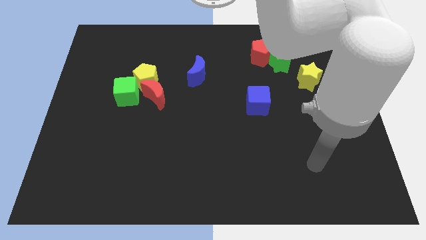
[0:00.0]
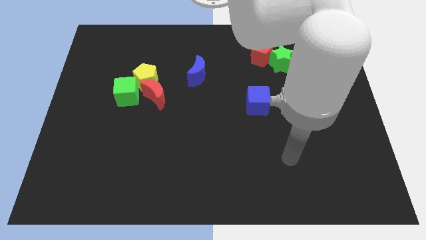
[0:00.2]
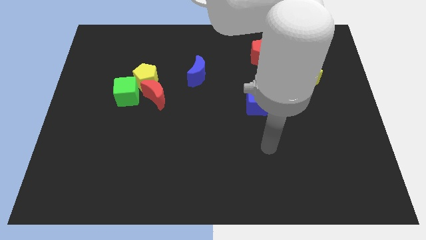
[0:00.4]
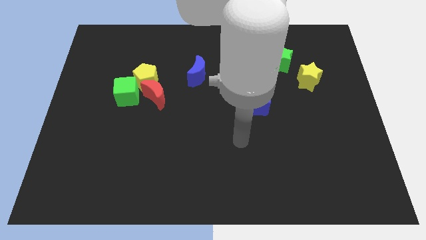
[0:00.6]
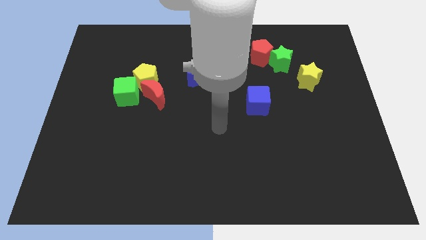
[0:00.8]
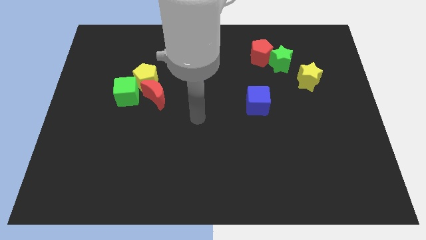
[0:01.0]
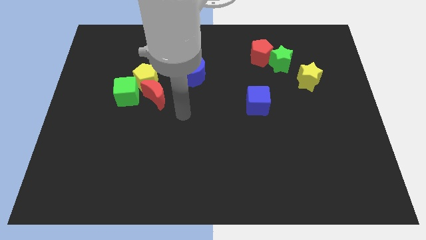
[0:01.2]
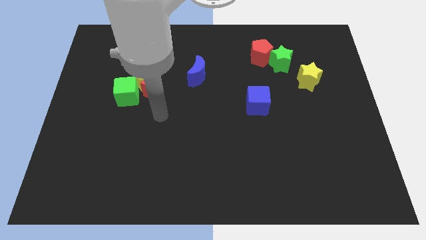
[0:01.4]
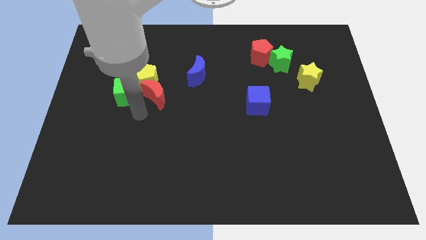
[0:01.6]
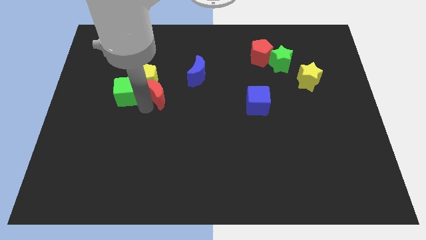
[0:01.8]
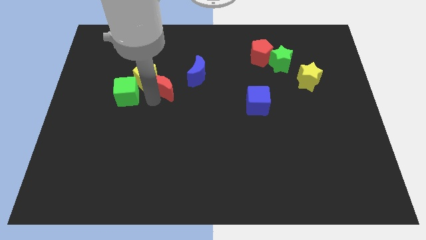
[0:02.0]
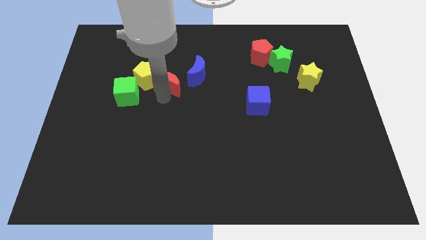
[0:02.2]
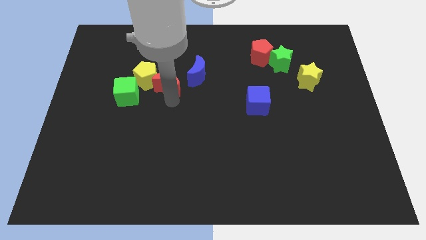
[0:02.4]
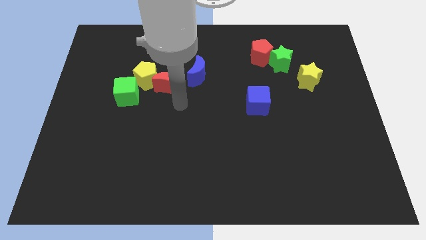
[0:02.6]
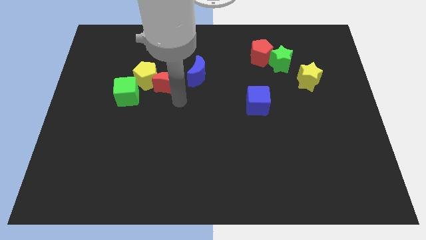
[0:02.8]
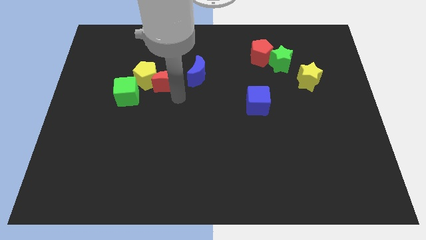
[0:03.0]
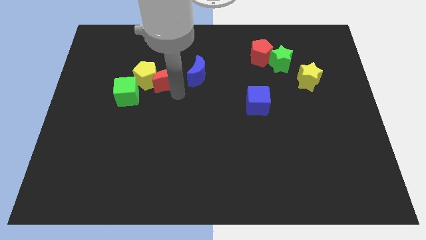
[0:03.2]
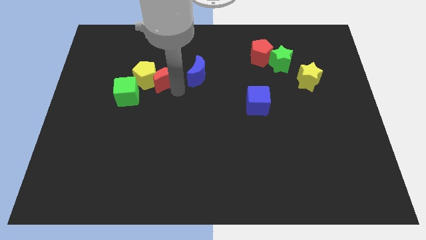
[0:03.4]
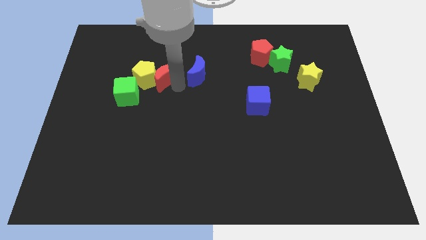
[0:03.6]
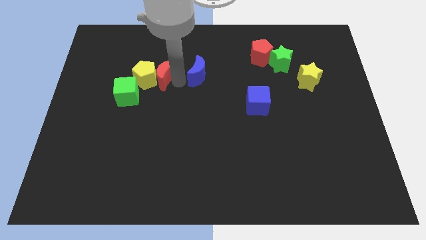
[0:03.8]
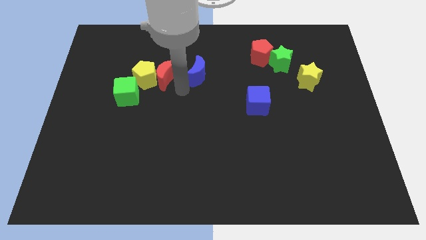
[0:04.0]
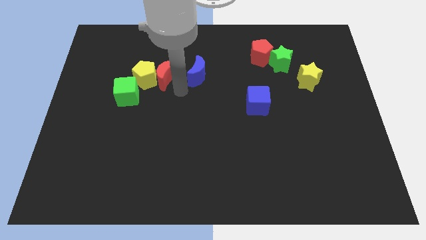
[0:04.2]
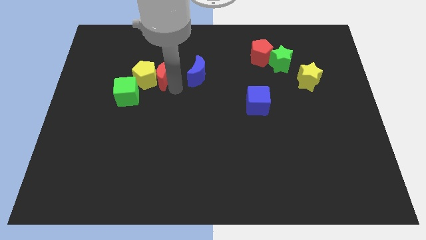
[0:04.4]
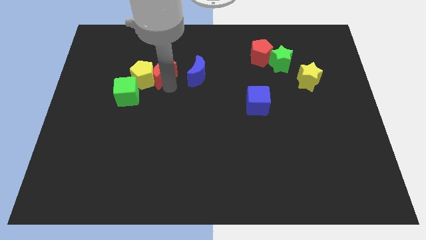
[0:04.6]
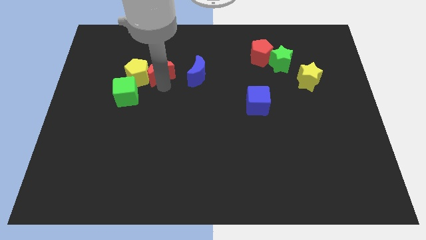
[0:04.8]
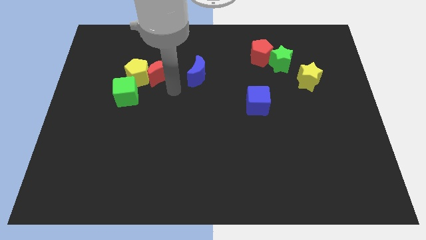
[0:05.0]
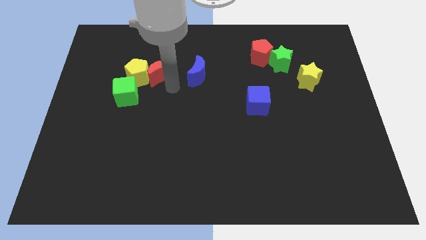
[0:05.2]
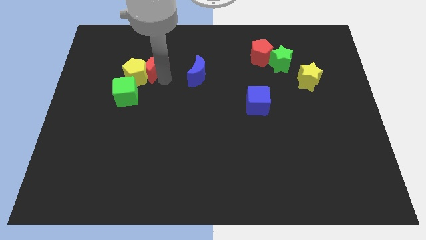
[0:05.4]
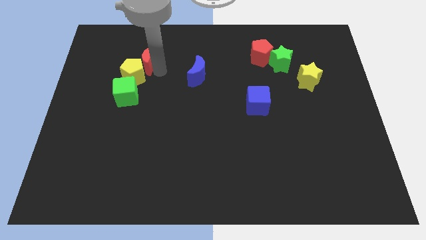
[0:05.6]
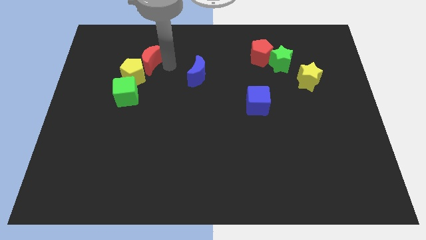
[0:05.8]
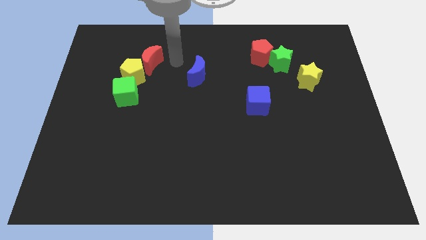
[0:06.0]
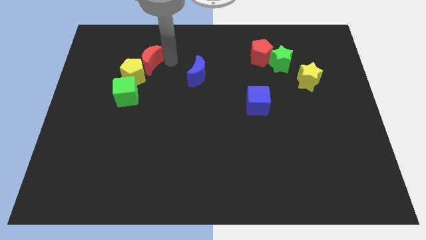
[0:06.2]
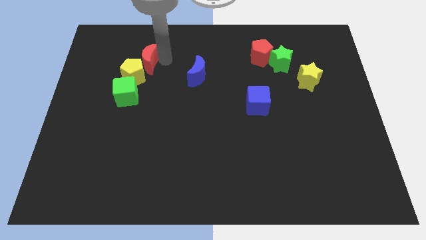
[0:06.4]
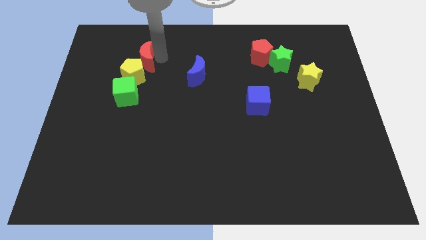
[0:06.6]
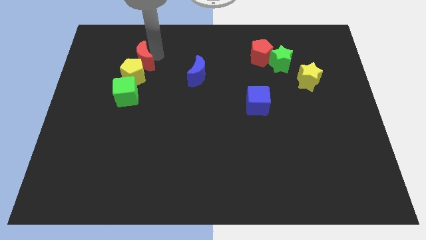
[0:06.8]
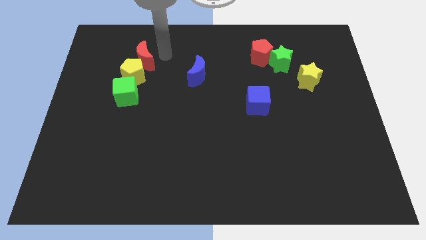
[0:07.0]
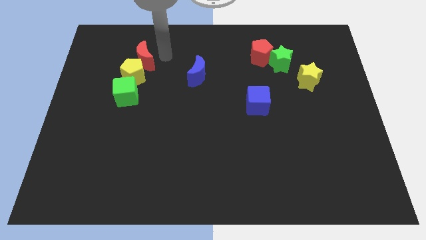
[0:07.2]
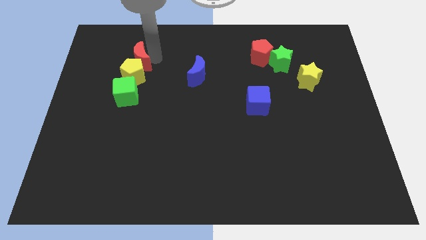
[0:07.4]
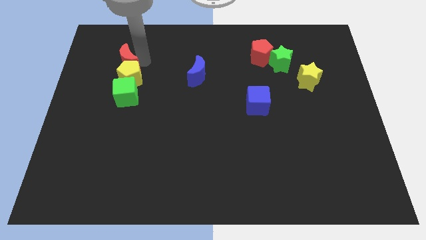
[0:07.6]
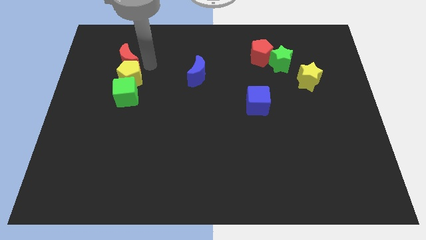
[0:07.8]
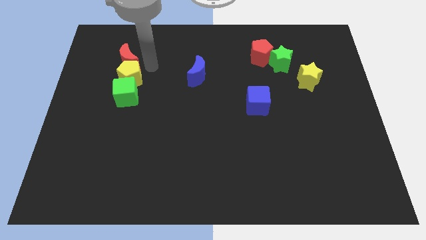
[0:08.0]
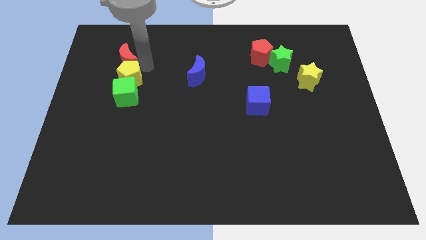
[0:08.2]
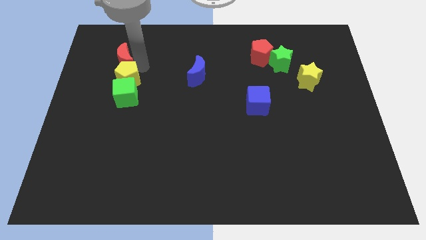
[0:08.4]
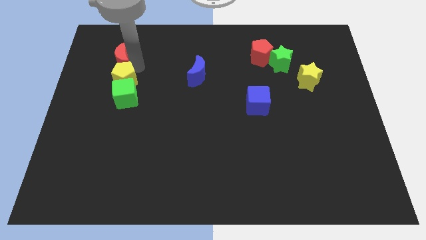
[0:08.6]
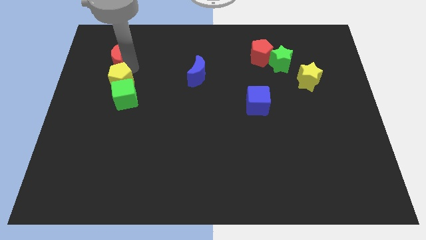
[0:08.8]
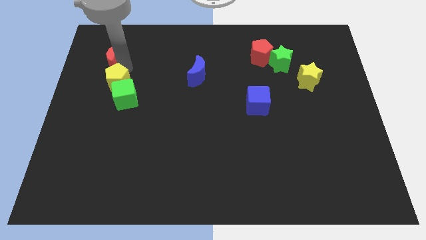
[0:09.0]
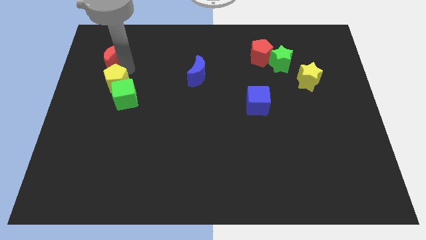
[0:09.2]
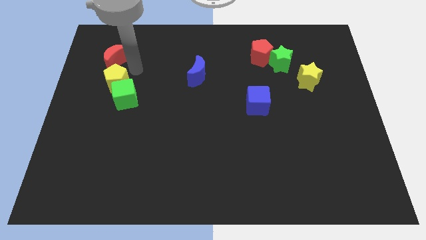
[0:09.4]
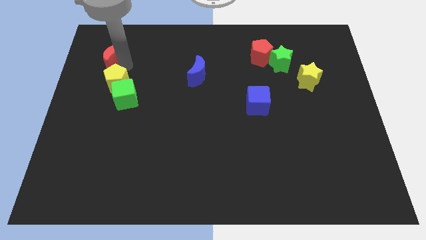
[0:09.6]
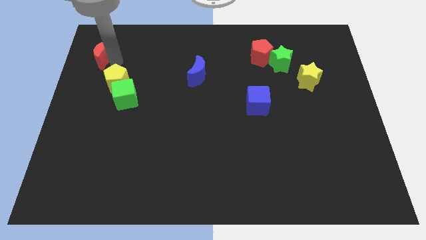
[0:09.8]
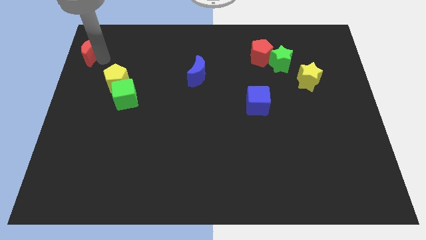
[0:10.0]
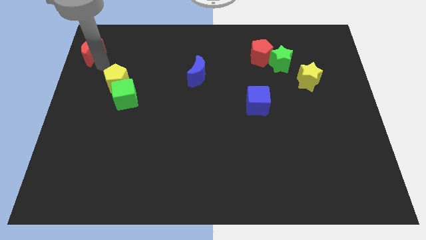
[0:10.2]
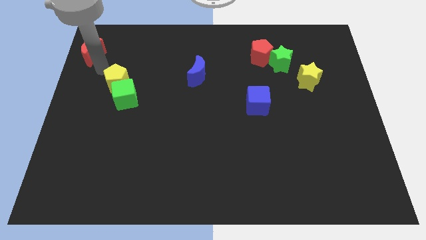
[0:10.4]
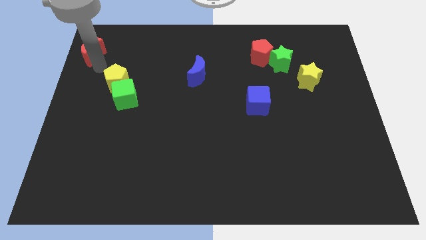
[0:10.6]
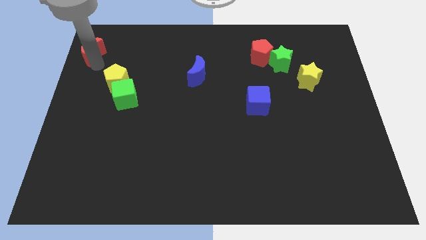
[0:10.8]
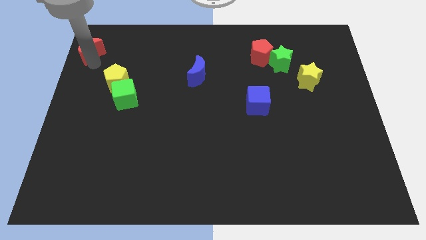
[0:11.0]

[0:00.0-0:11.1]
slide the red moon to the top left corner

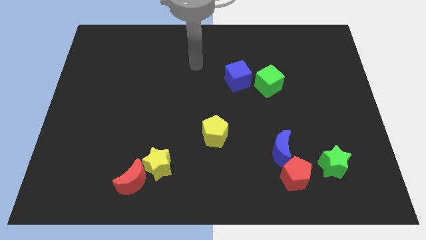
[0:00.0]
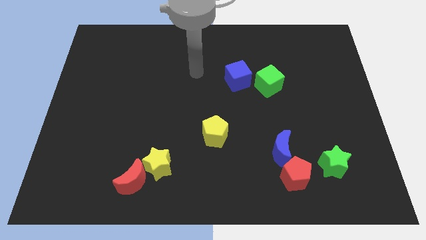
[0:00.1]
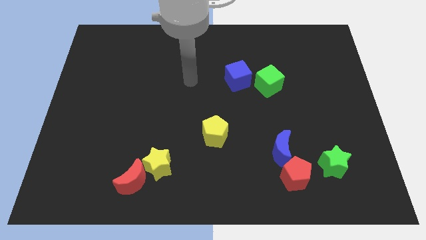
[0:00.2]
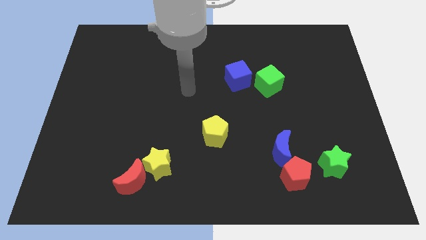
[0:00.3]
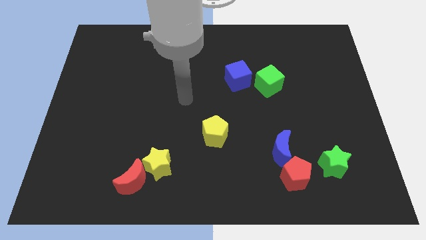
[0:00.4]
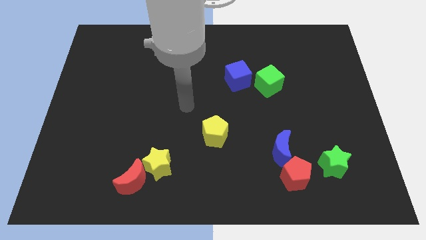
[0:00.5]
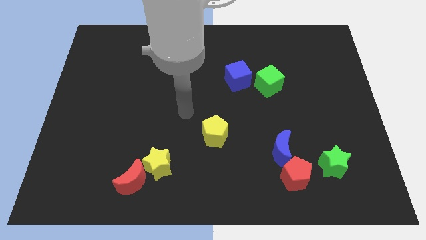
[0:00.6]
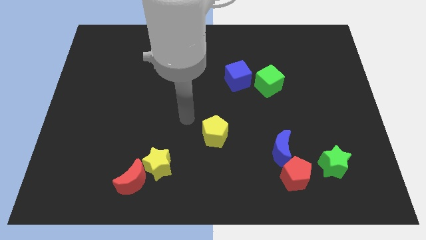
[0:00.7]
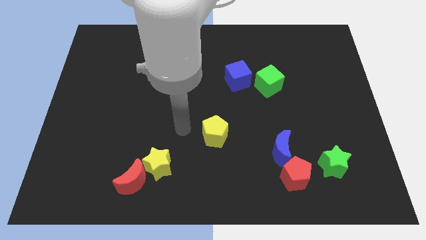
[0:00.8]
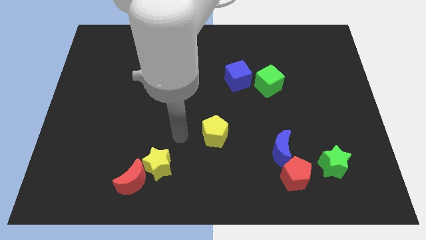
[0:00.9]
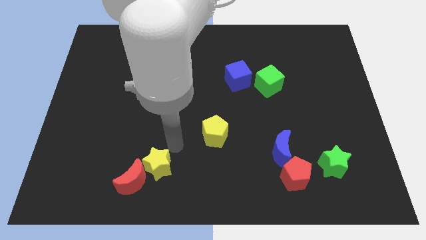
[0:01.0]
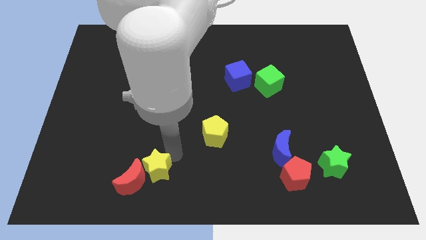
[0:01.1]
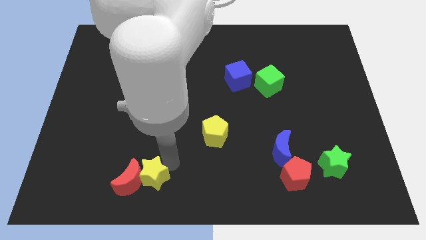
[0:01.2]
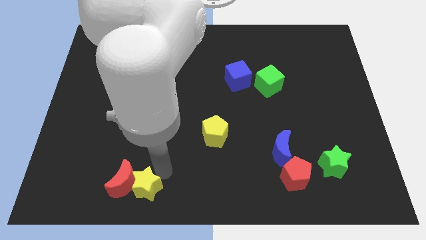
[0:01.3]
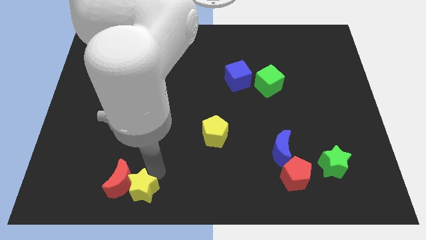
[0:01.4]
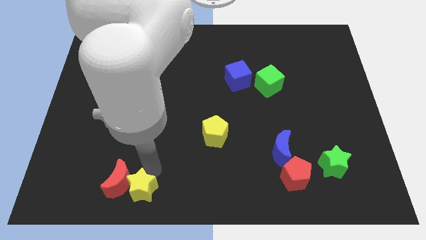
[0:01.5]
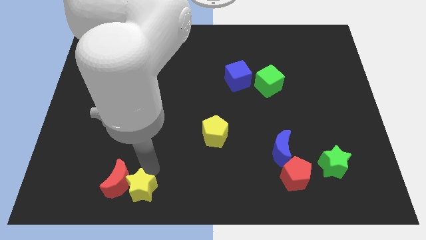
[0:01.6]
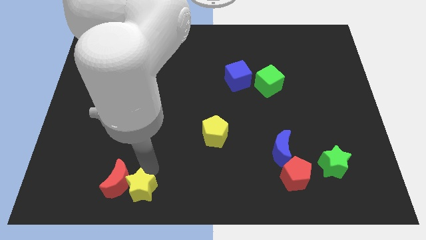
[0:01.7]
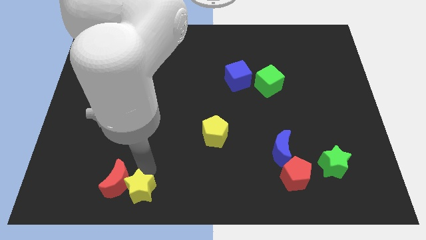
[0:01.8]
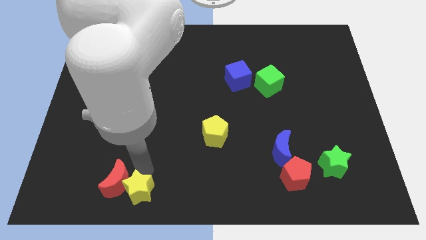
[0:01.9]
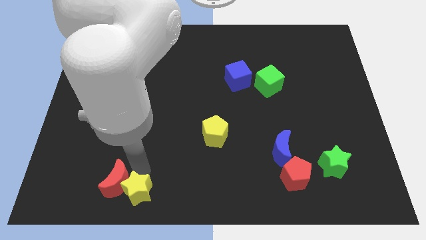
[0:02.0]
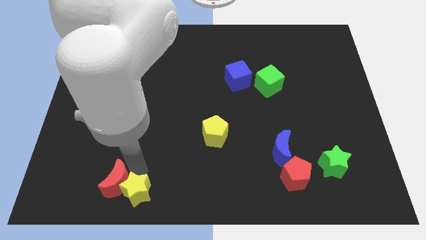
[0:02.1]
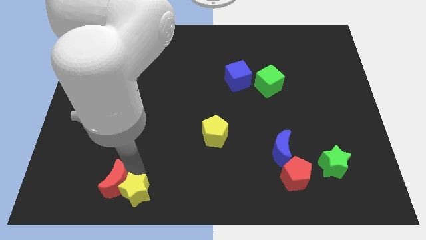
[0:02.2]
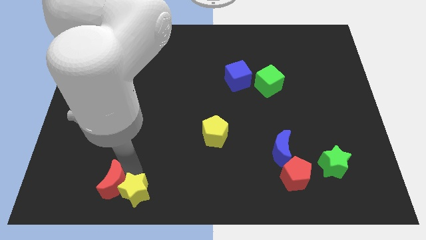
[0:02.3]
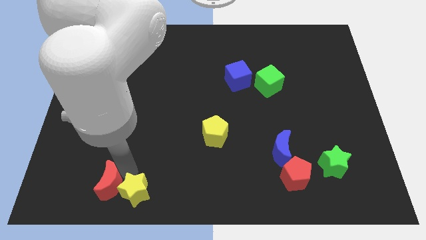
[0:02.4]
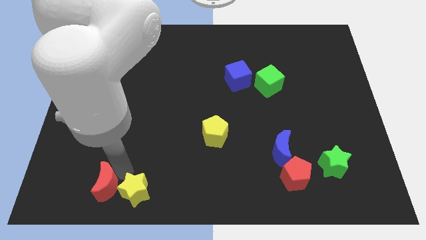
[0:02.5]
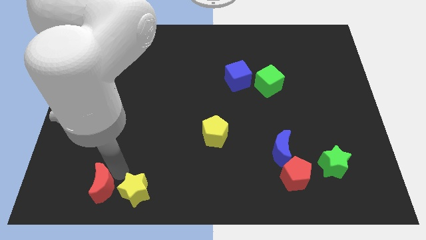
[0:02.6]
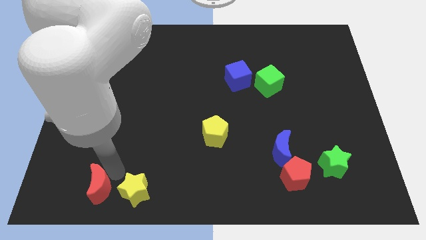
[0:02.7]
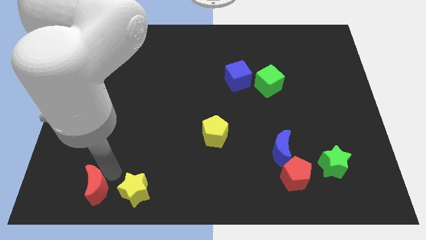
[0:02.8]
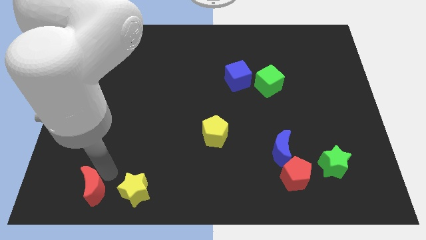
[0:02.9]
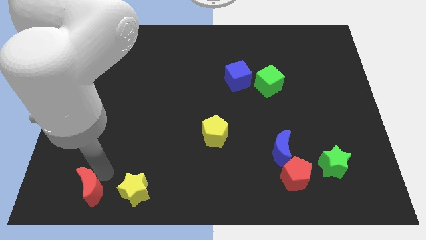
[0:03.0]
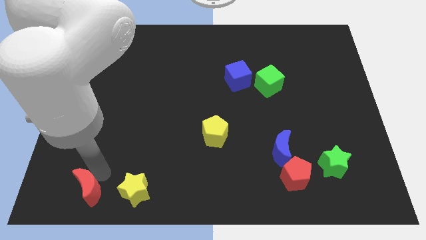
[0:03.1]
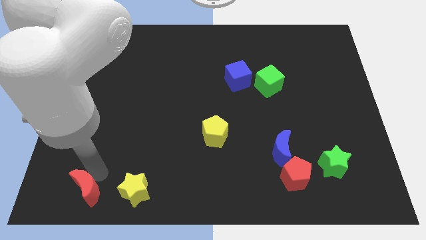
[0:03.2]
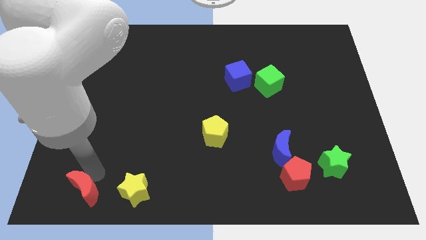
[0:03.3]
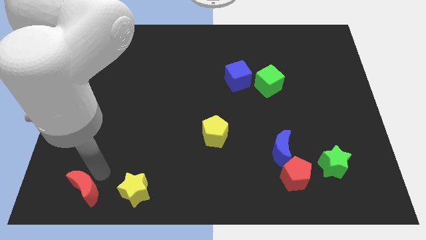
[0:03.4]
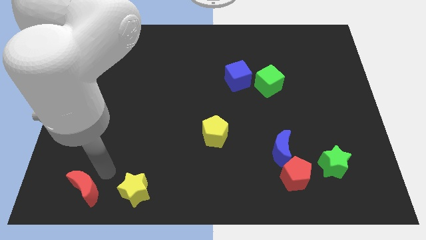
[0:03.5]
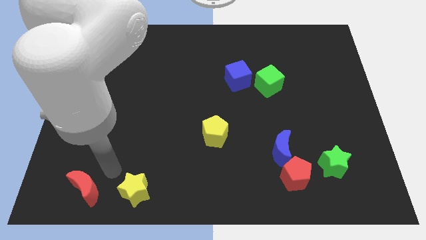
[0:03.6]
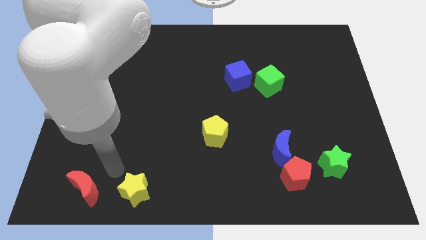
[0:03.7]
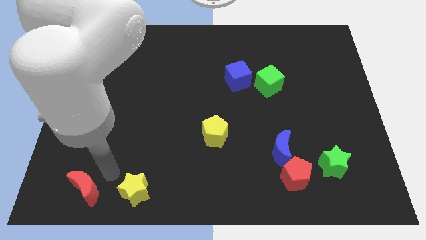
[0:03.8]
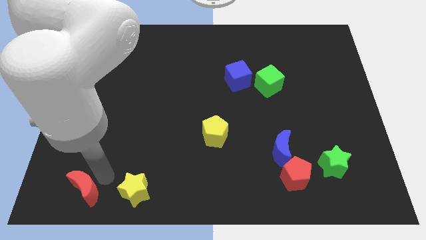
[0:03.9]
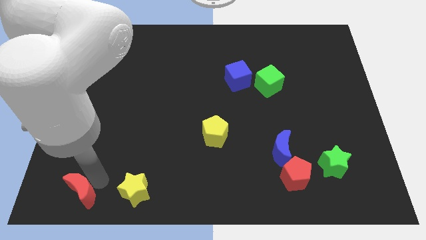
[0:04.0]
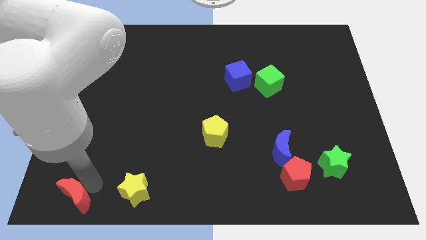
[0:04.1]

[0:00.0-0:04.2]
push the red moon to the bottom left corner
